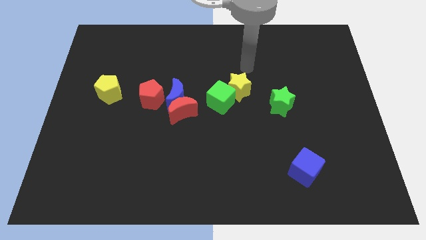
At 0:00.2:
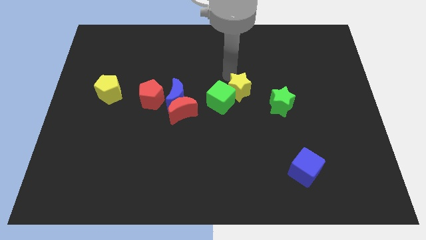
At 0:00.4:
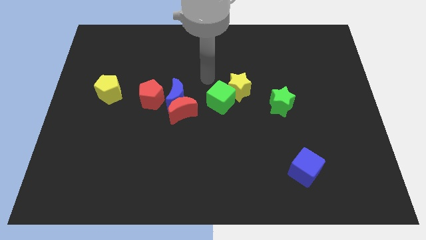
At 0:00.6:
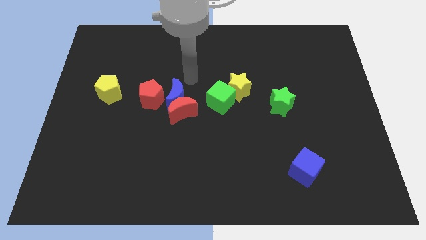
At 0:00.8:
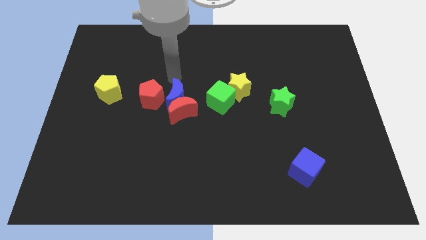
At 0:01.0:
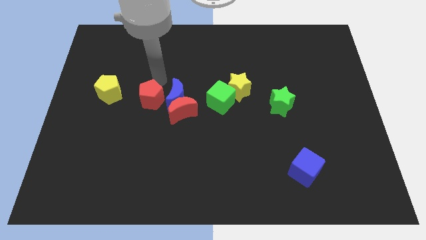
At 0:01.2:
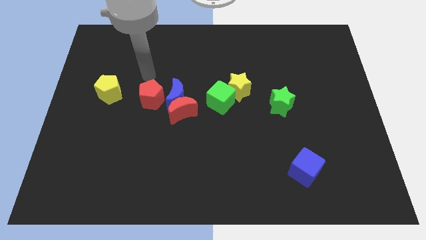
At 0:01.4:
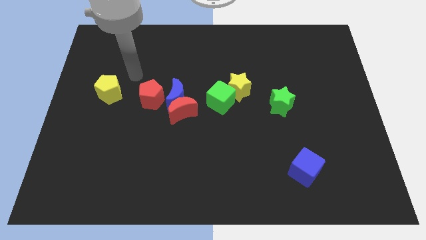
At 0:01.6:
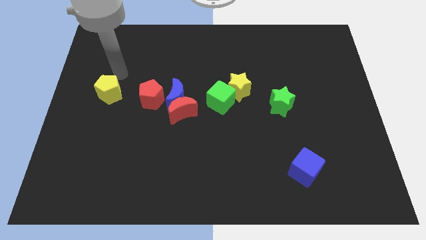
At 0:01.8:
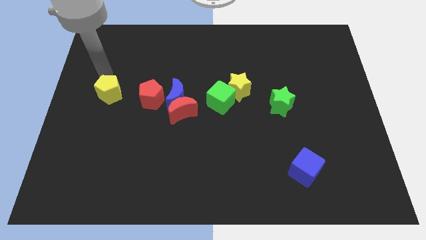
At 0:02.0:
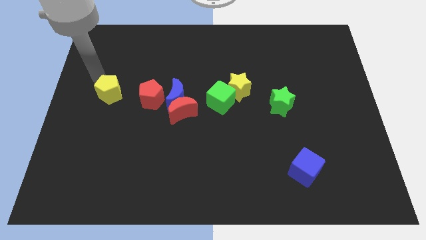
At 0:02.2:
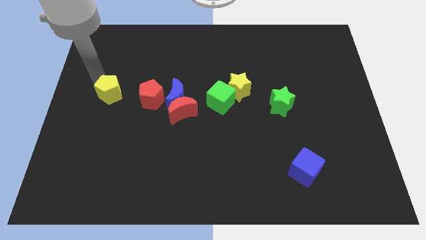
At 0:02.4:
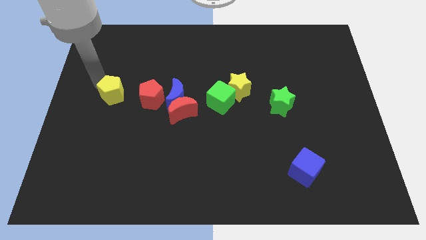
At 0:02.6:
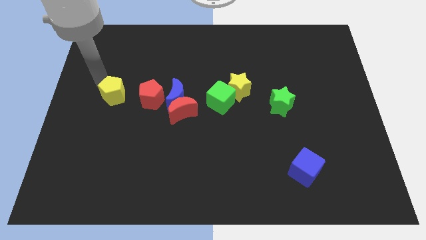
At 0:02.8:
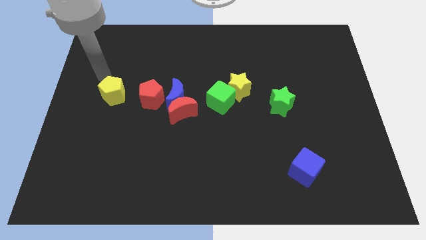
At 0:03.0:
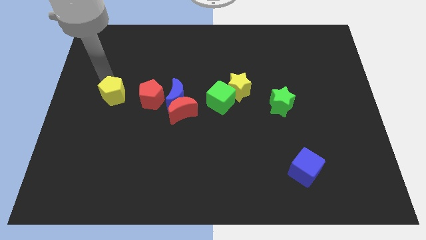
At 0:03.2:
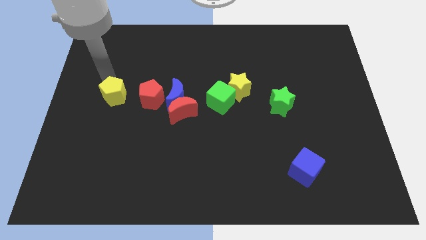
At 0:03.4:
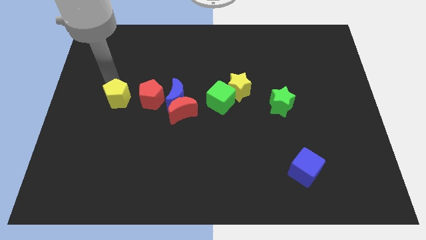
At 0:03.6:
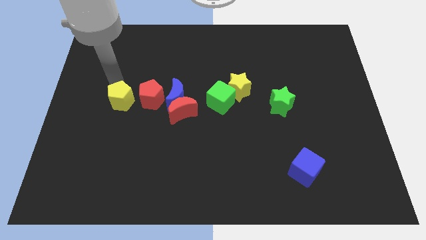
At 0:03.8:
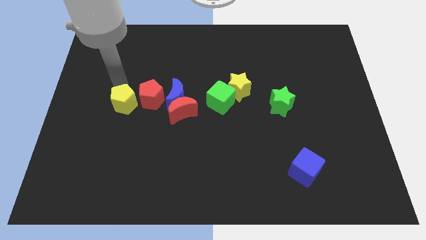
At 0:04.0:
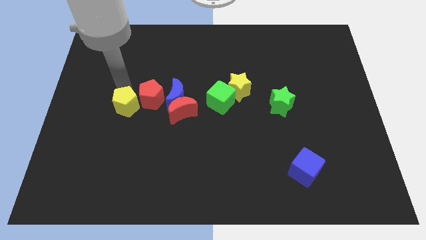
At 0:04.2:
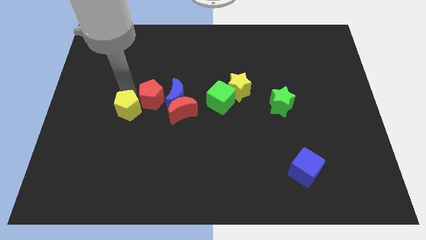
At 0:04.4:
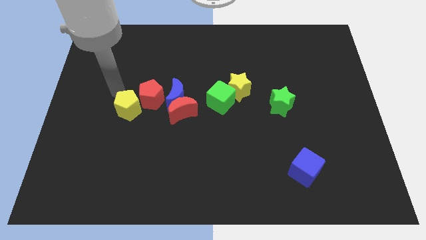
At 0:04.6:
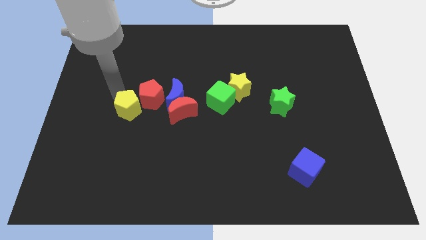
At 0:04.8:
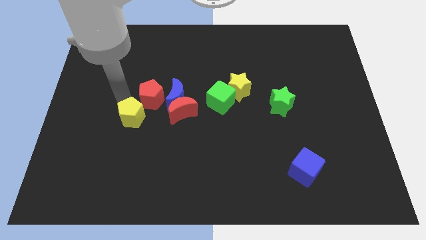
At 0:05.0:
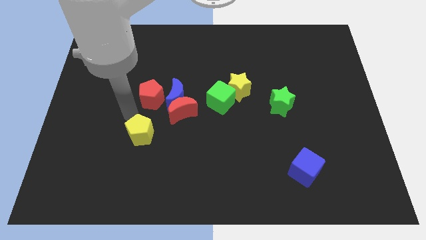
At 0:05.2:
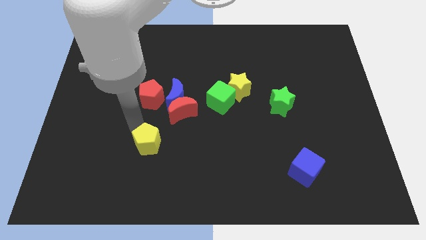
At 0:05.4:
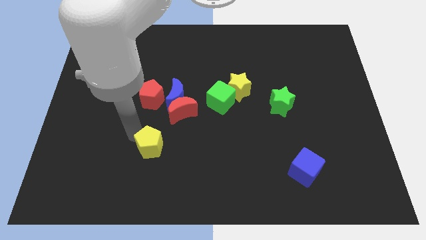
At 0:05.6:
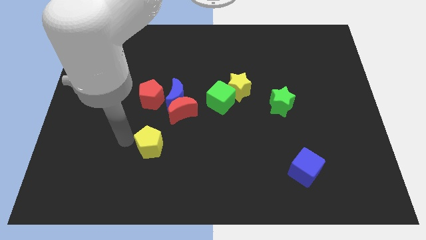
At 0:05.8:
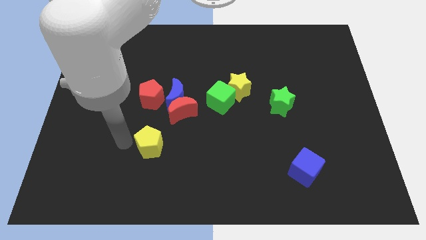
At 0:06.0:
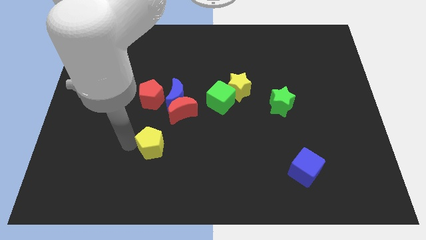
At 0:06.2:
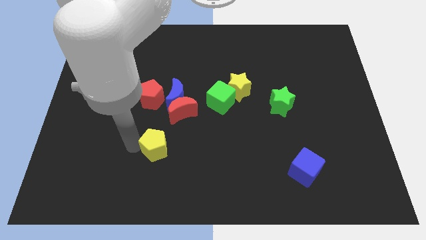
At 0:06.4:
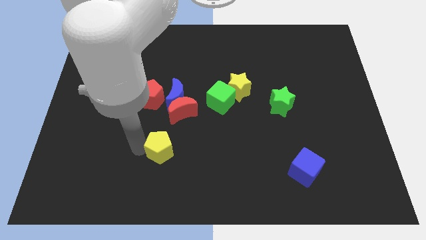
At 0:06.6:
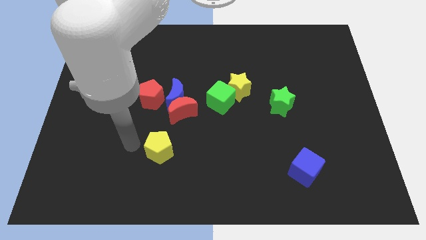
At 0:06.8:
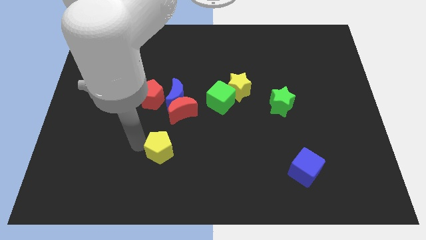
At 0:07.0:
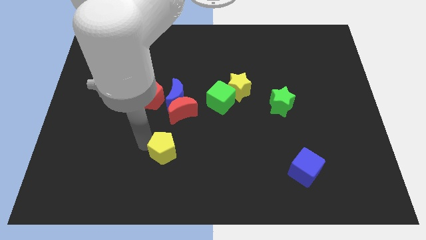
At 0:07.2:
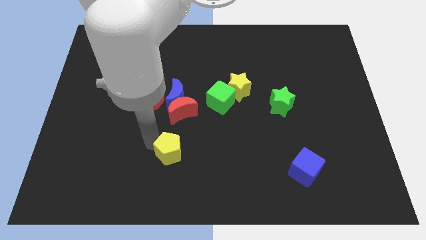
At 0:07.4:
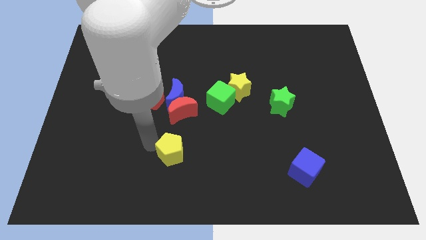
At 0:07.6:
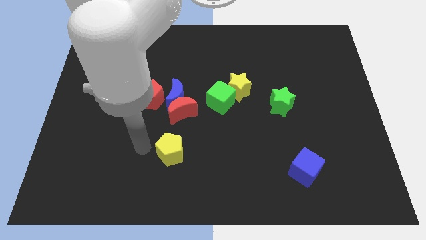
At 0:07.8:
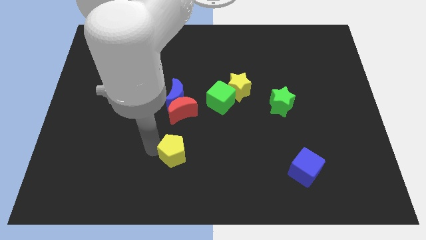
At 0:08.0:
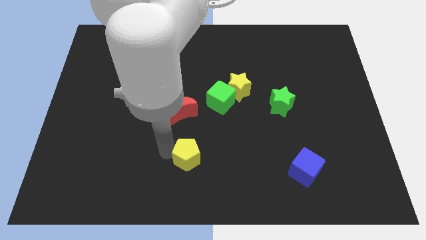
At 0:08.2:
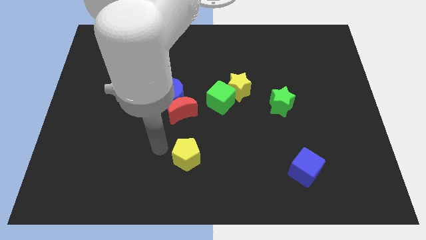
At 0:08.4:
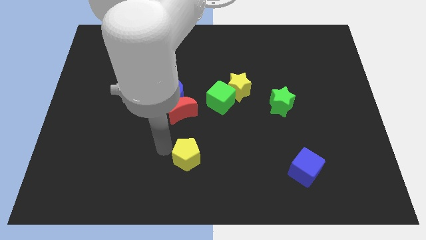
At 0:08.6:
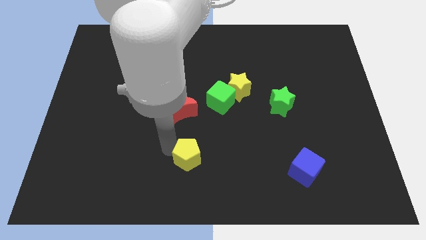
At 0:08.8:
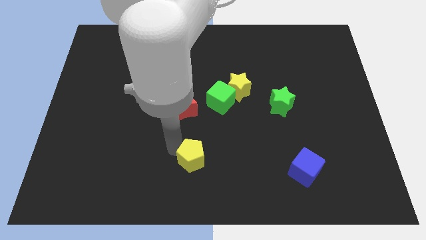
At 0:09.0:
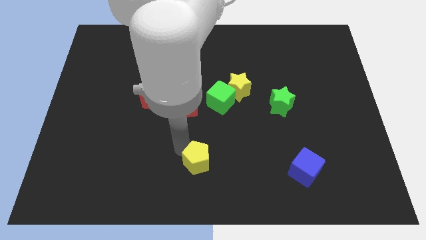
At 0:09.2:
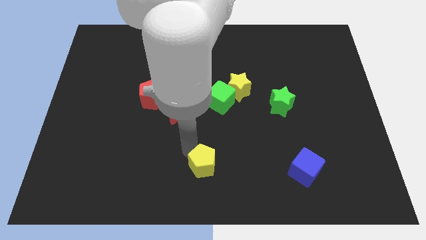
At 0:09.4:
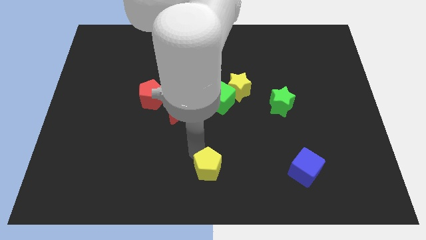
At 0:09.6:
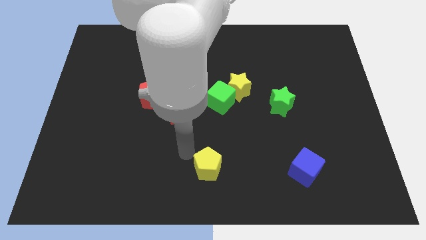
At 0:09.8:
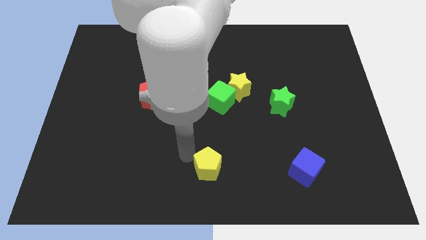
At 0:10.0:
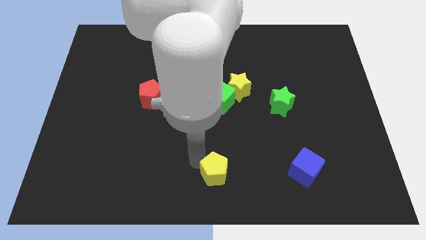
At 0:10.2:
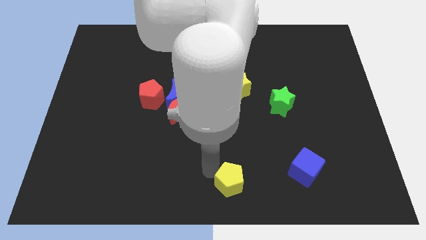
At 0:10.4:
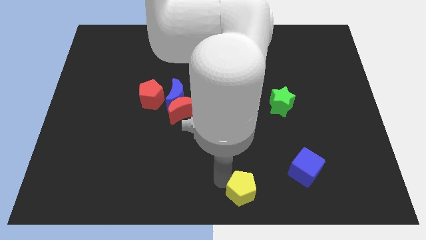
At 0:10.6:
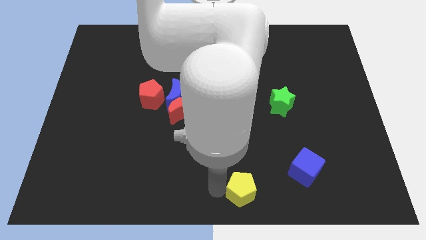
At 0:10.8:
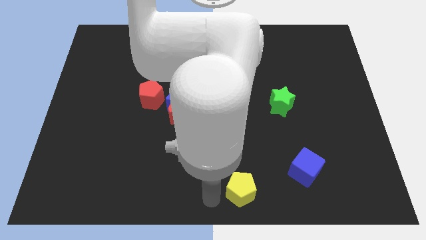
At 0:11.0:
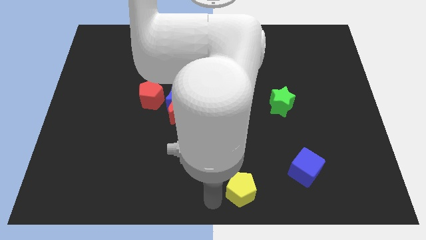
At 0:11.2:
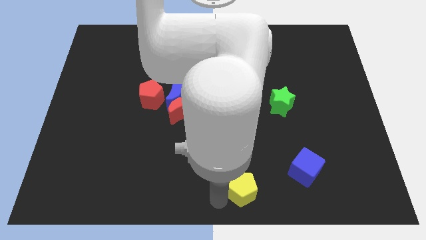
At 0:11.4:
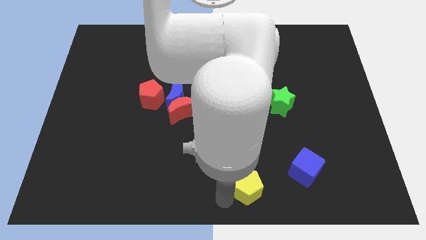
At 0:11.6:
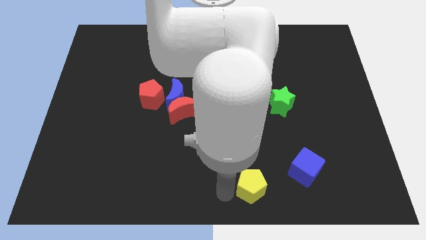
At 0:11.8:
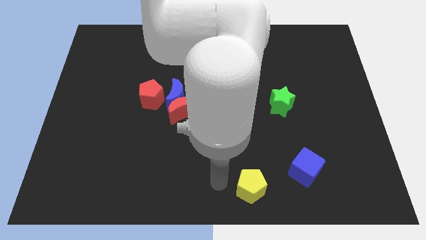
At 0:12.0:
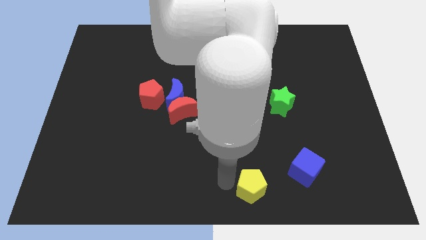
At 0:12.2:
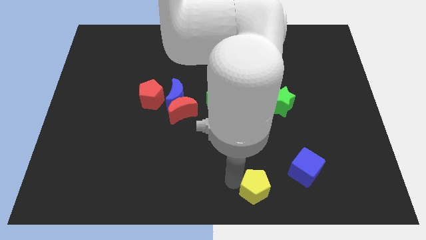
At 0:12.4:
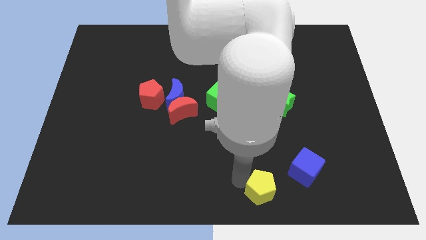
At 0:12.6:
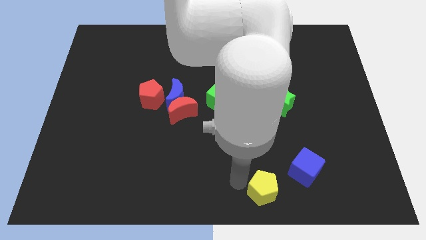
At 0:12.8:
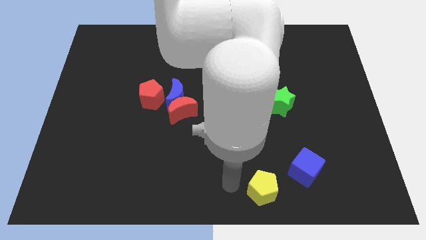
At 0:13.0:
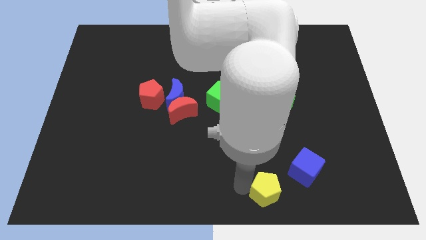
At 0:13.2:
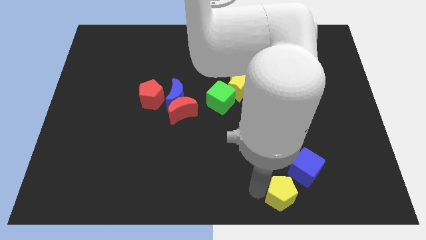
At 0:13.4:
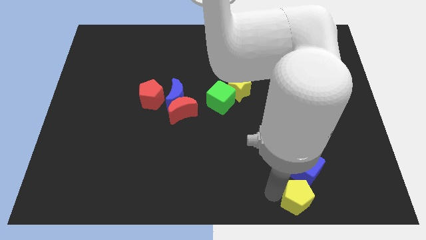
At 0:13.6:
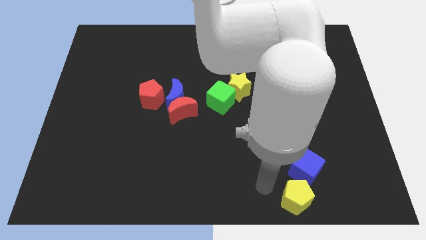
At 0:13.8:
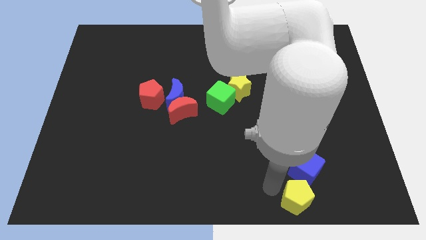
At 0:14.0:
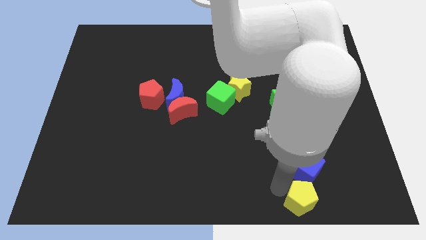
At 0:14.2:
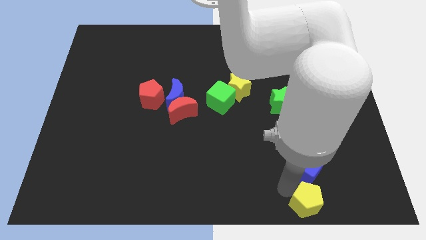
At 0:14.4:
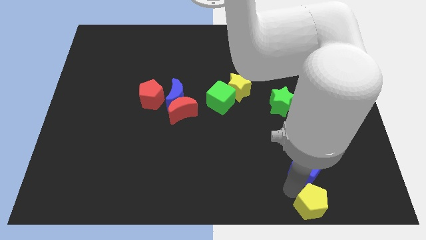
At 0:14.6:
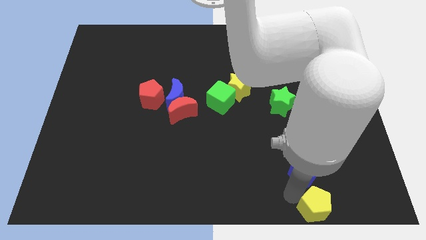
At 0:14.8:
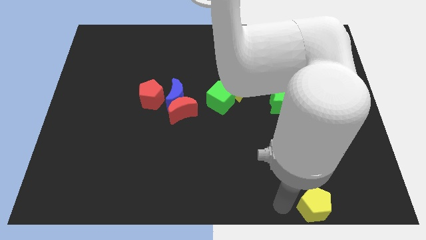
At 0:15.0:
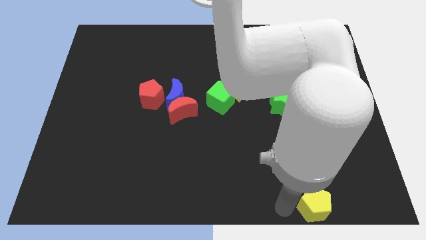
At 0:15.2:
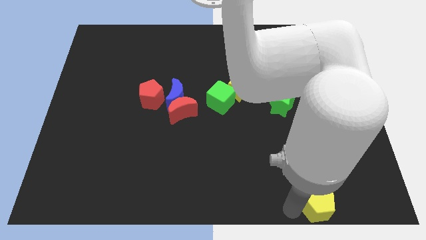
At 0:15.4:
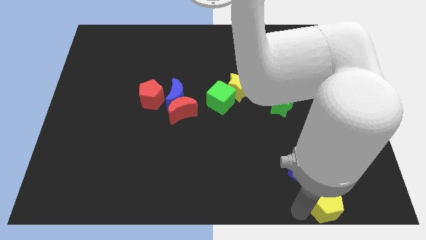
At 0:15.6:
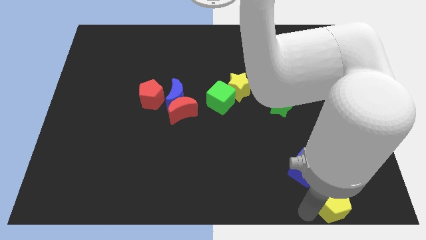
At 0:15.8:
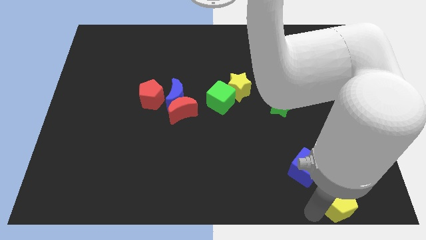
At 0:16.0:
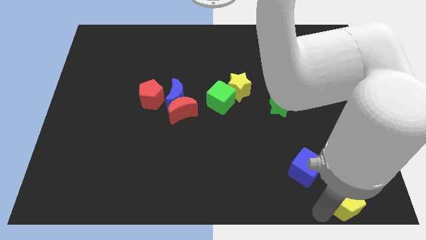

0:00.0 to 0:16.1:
slide the yellow pentagon to the bottom right
